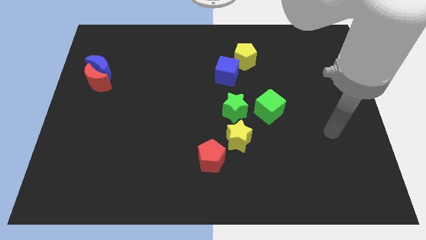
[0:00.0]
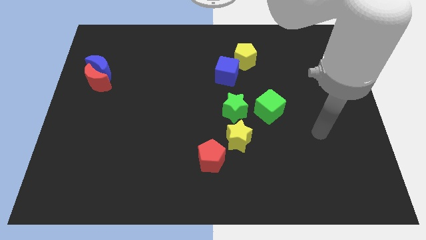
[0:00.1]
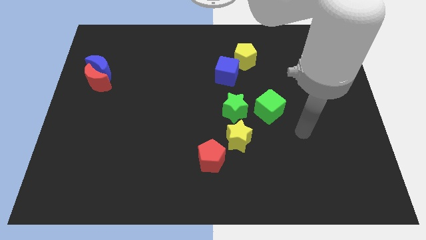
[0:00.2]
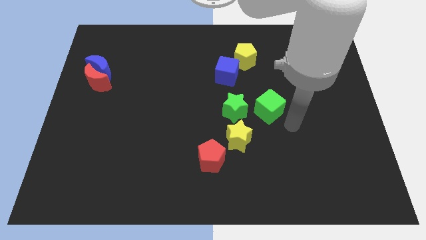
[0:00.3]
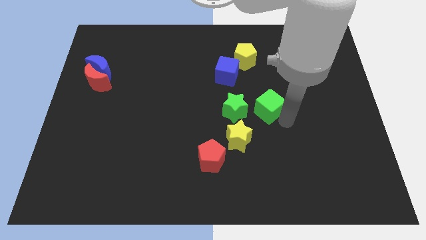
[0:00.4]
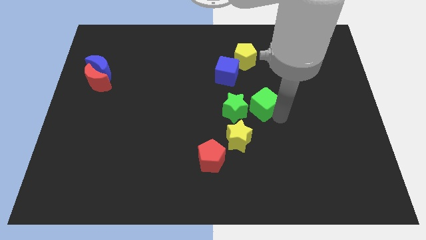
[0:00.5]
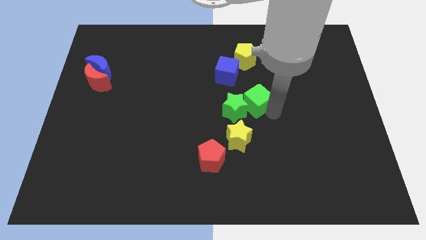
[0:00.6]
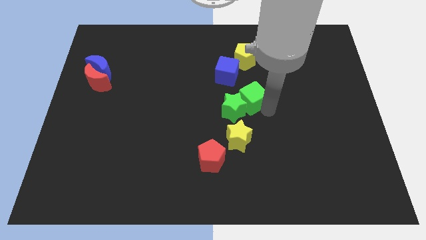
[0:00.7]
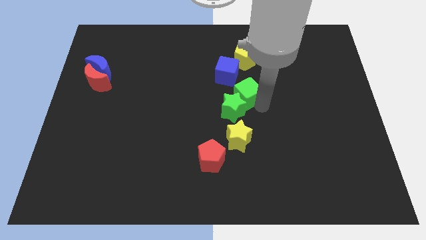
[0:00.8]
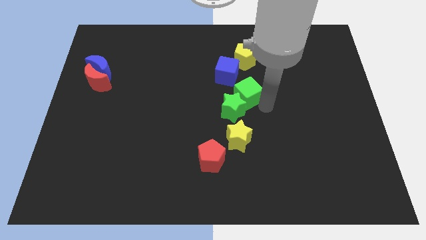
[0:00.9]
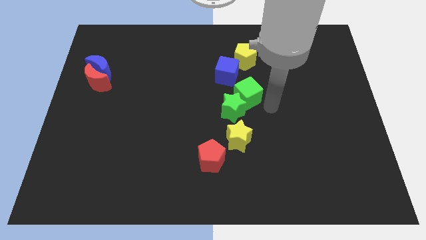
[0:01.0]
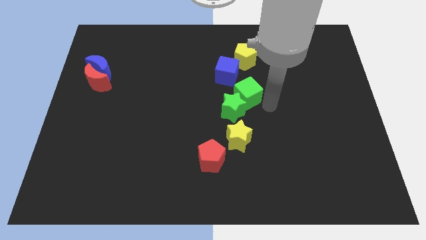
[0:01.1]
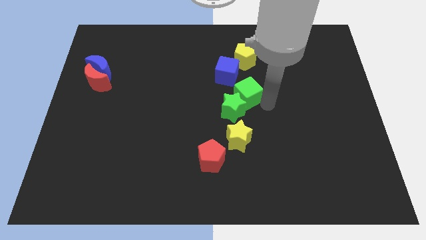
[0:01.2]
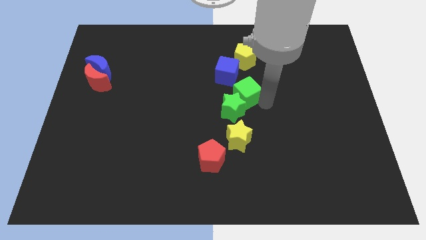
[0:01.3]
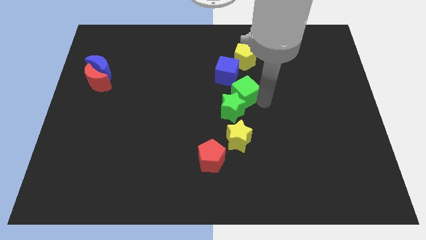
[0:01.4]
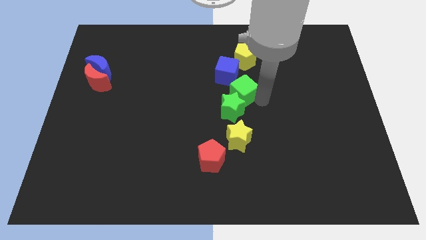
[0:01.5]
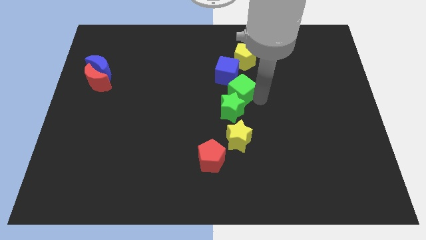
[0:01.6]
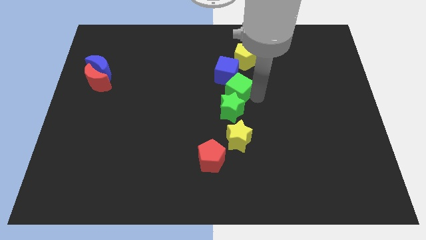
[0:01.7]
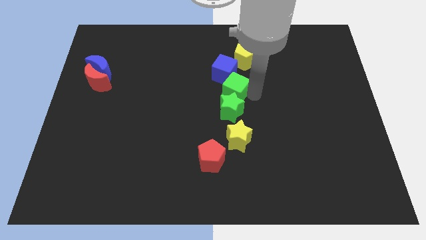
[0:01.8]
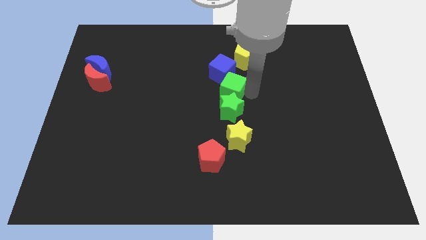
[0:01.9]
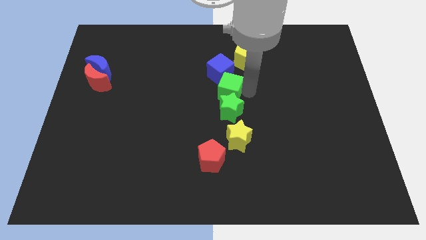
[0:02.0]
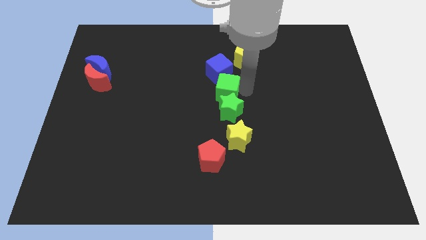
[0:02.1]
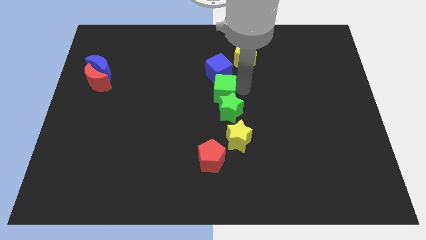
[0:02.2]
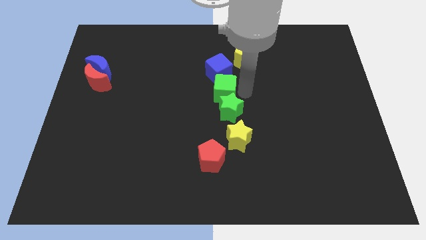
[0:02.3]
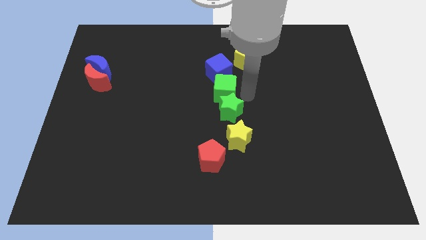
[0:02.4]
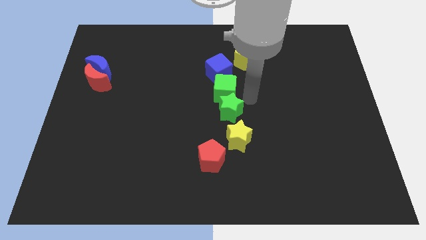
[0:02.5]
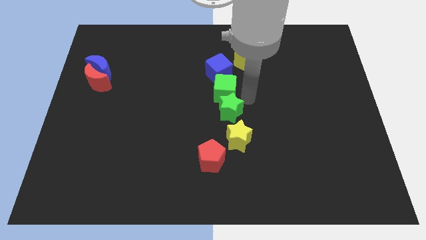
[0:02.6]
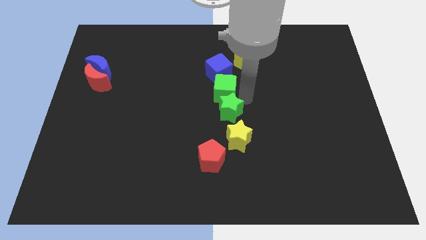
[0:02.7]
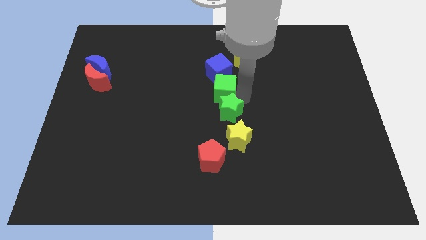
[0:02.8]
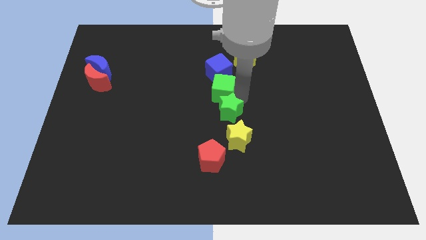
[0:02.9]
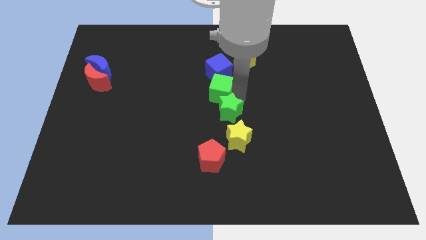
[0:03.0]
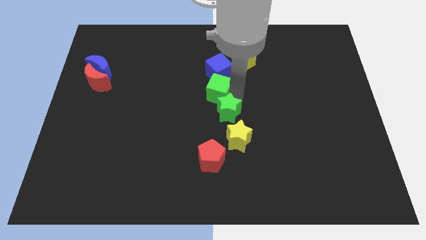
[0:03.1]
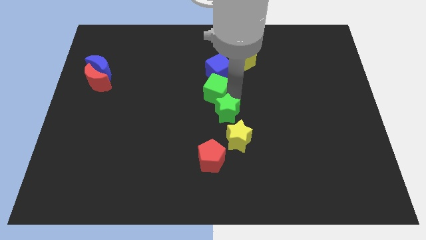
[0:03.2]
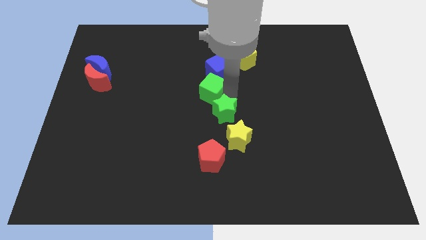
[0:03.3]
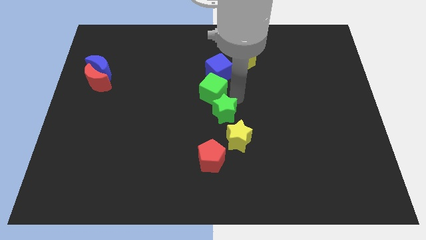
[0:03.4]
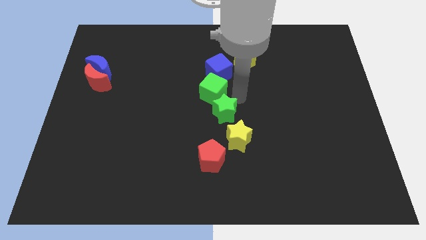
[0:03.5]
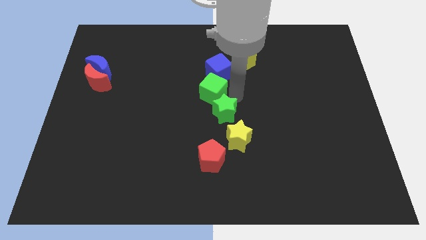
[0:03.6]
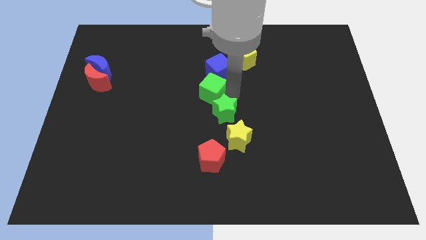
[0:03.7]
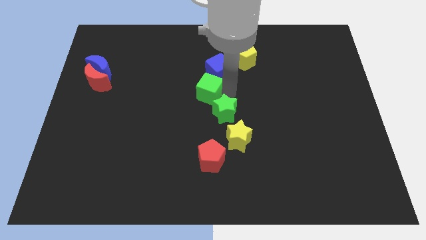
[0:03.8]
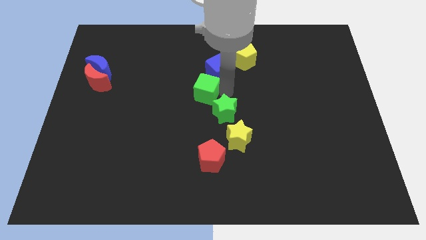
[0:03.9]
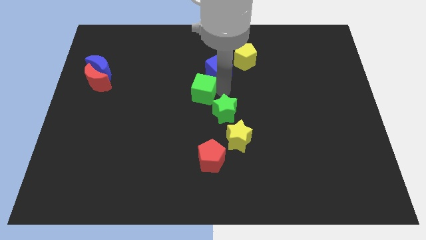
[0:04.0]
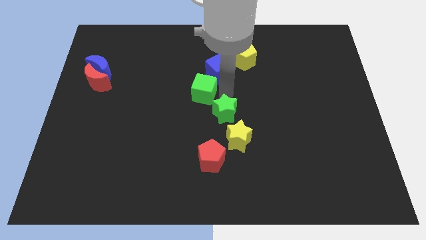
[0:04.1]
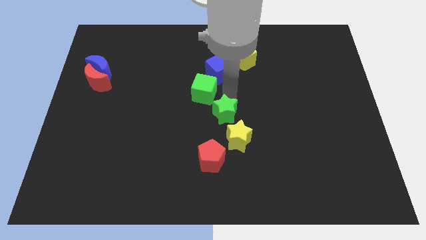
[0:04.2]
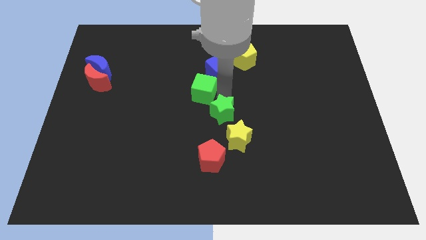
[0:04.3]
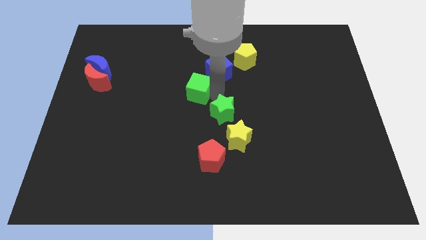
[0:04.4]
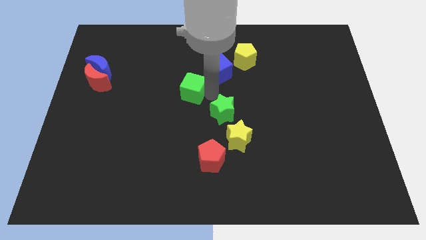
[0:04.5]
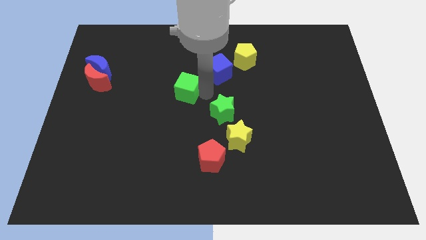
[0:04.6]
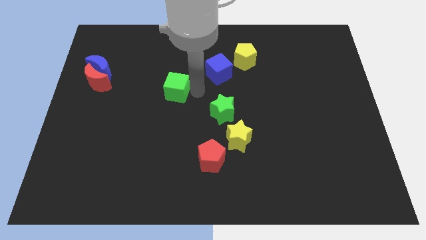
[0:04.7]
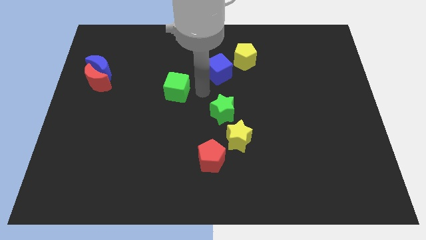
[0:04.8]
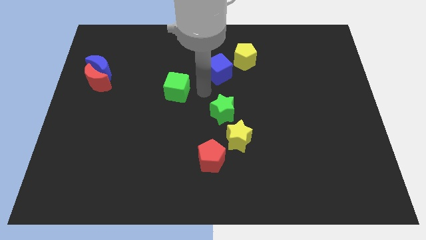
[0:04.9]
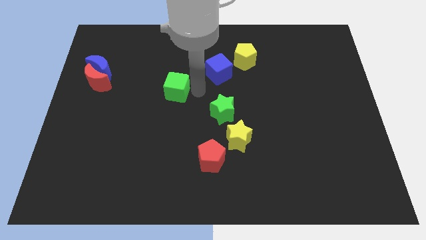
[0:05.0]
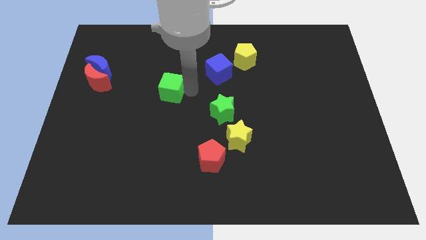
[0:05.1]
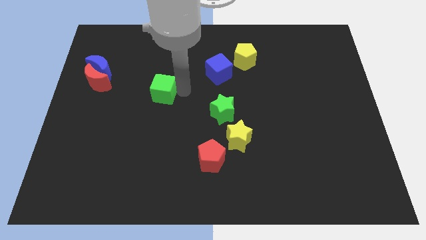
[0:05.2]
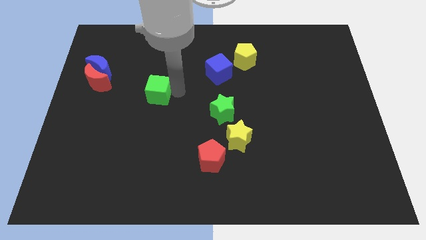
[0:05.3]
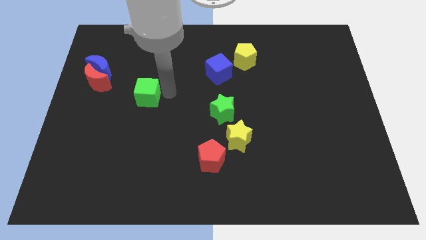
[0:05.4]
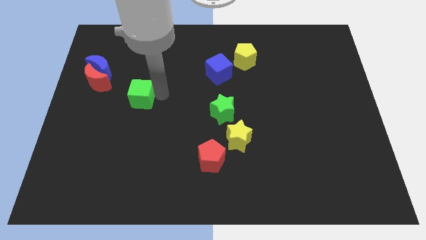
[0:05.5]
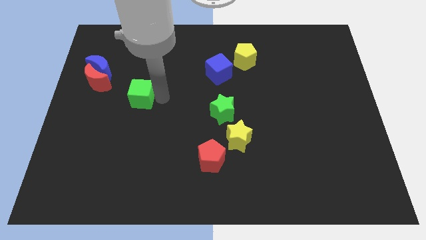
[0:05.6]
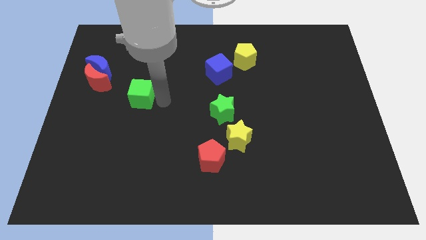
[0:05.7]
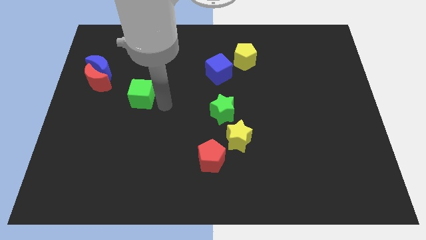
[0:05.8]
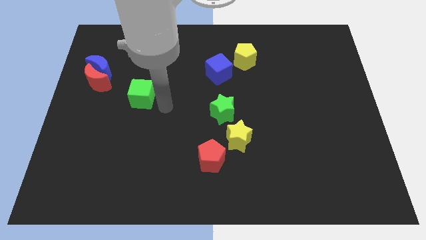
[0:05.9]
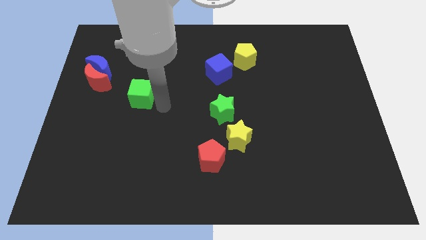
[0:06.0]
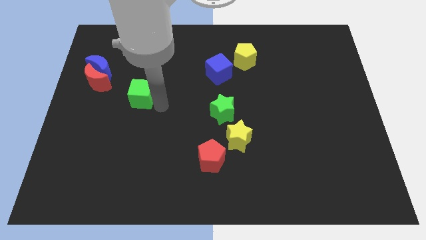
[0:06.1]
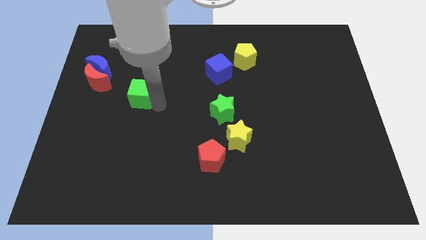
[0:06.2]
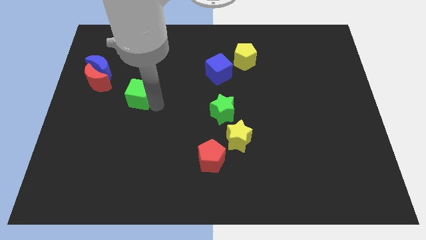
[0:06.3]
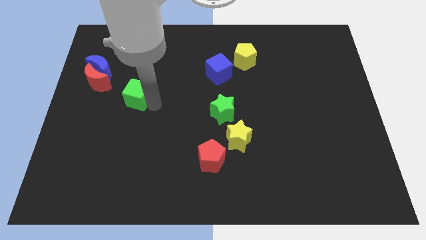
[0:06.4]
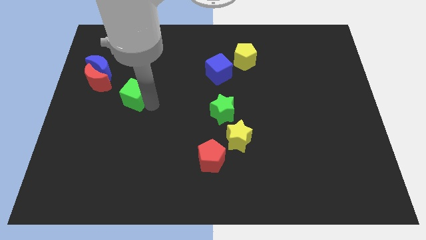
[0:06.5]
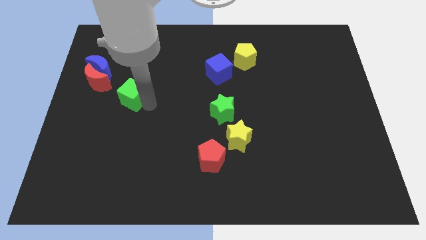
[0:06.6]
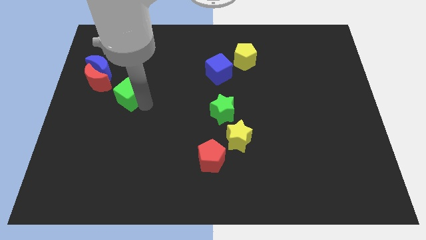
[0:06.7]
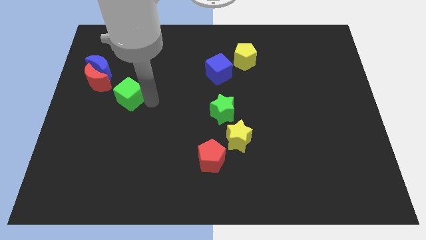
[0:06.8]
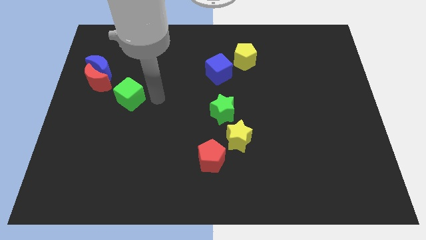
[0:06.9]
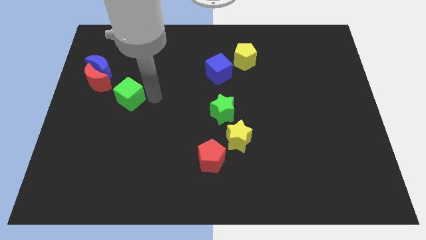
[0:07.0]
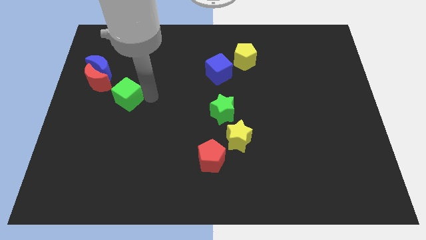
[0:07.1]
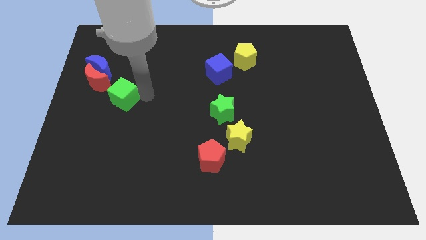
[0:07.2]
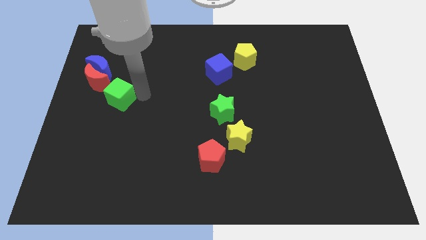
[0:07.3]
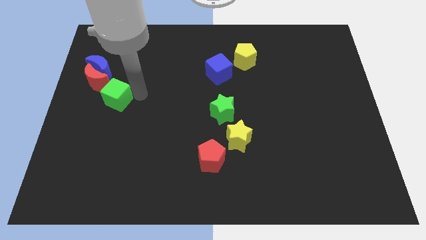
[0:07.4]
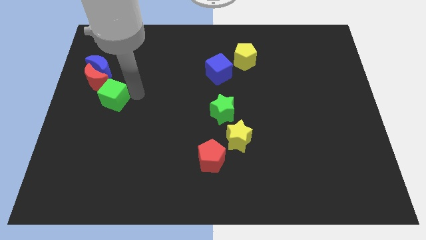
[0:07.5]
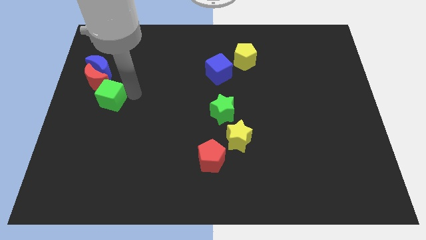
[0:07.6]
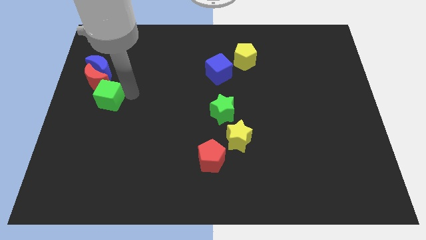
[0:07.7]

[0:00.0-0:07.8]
move the green cube to the left side
